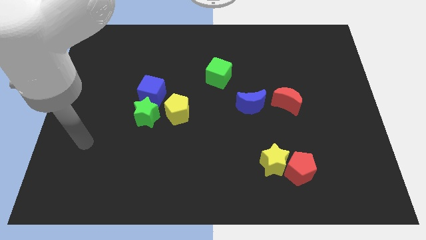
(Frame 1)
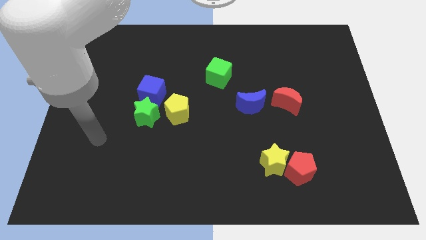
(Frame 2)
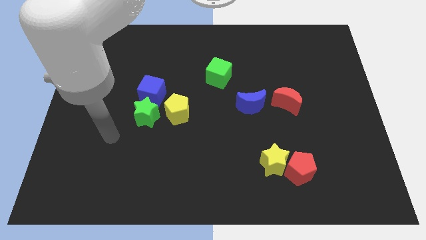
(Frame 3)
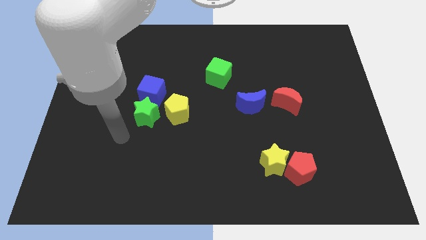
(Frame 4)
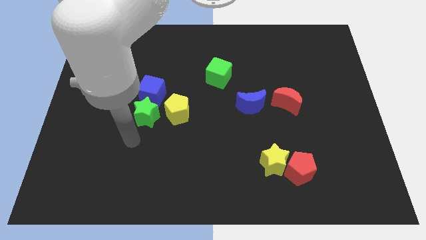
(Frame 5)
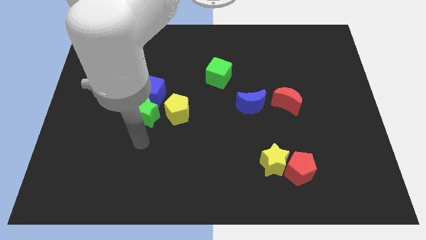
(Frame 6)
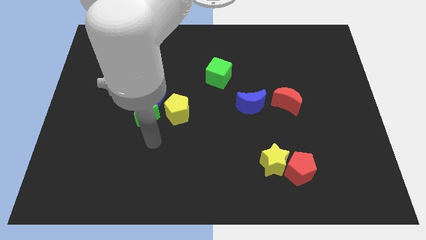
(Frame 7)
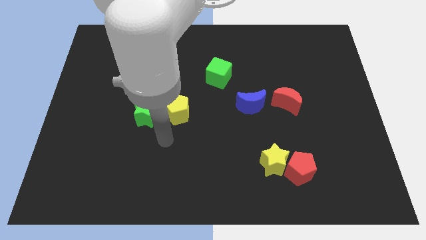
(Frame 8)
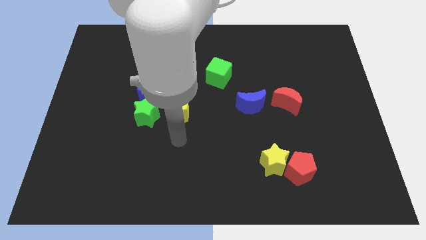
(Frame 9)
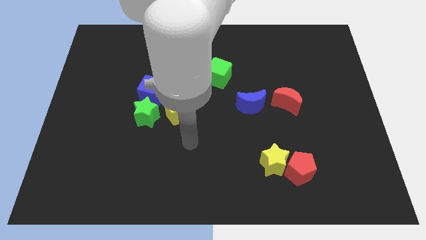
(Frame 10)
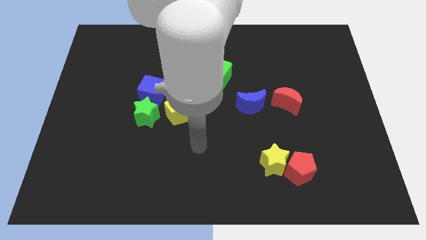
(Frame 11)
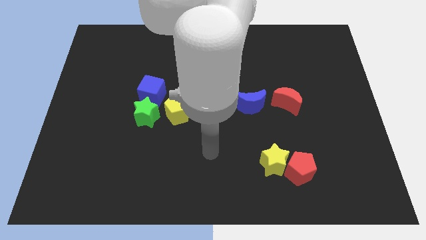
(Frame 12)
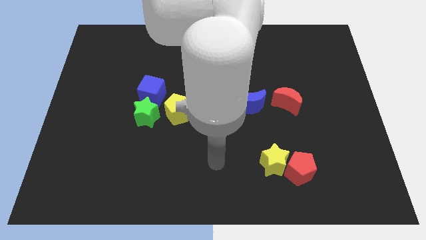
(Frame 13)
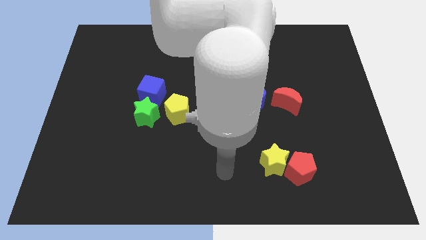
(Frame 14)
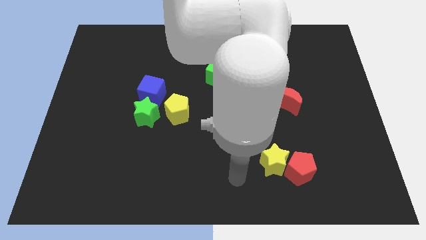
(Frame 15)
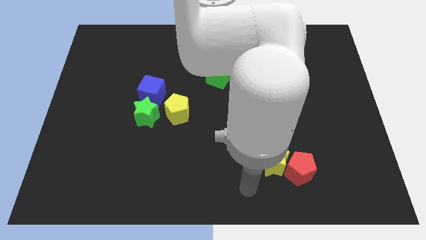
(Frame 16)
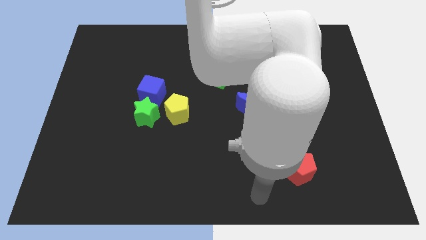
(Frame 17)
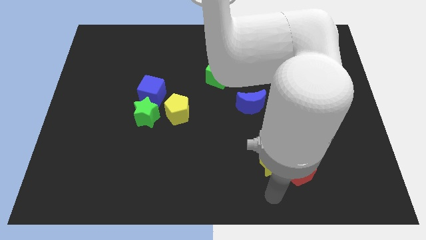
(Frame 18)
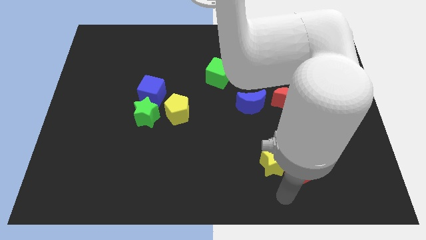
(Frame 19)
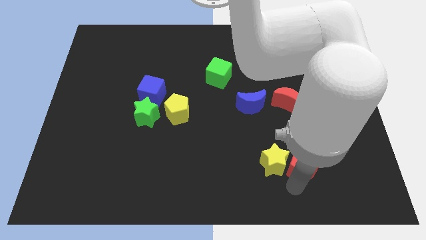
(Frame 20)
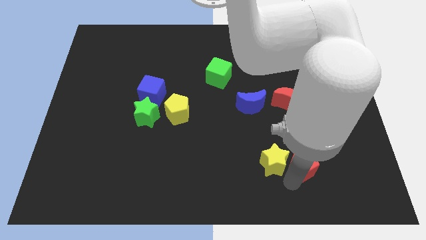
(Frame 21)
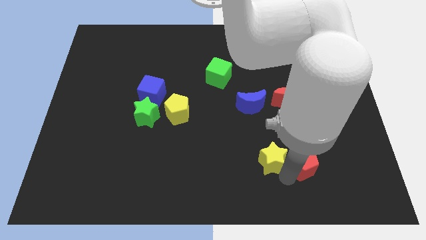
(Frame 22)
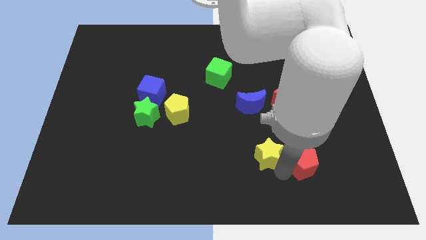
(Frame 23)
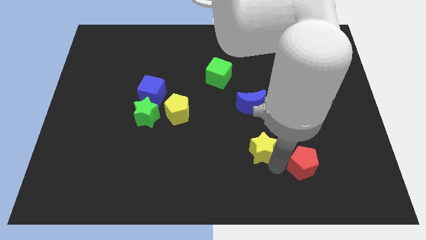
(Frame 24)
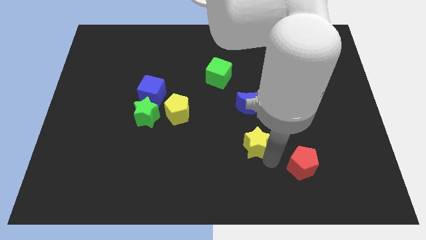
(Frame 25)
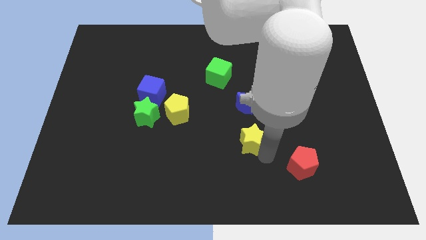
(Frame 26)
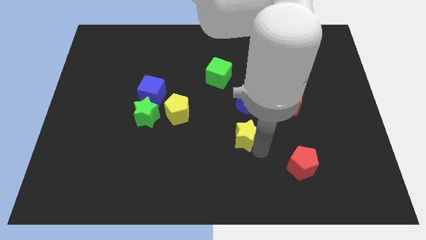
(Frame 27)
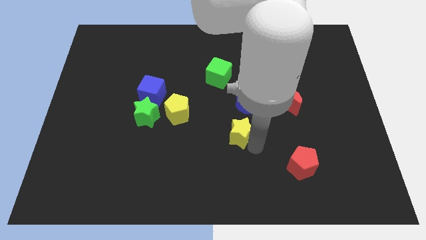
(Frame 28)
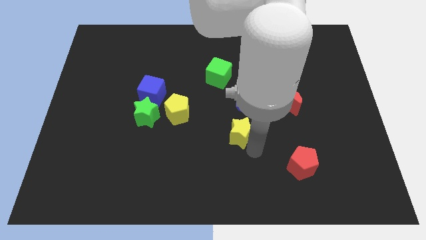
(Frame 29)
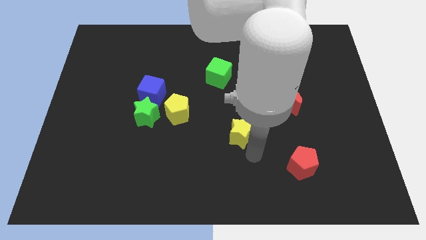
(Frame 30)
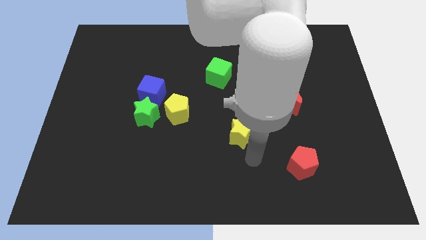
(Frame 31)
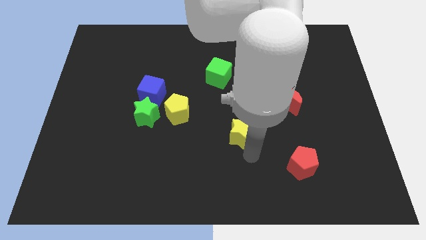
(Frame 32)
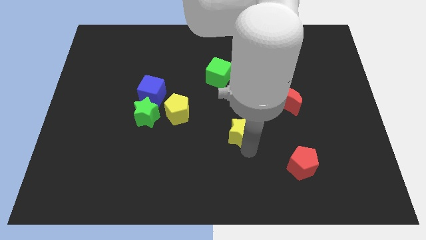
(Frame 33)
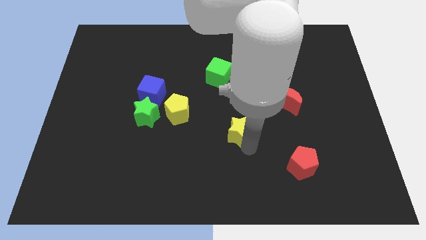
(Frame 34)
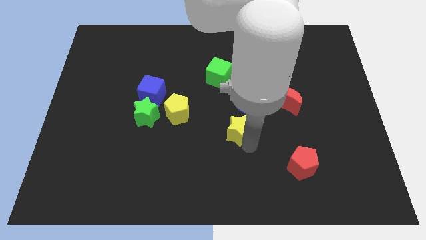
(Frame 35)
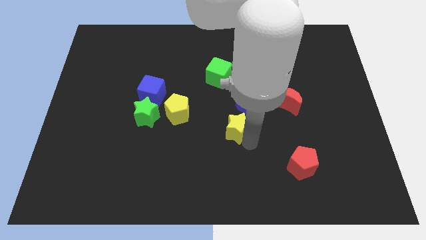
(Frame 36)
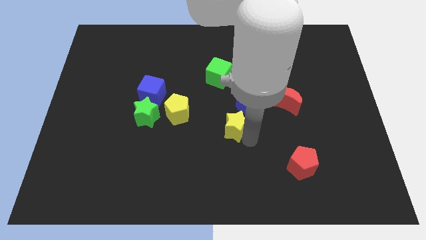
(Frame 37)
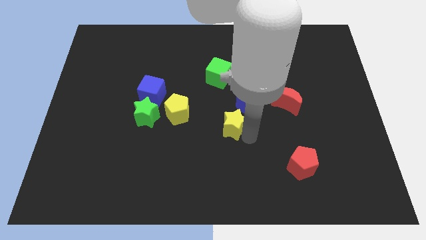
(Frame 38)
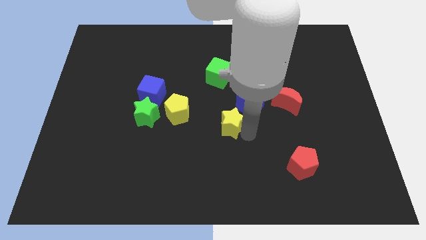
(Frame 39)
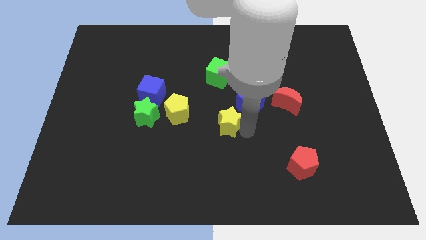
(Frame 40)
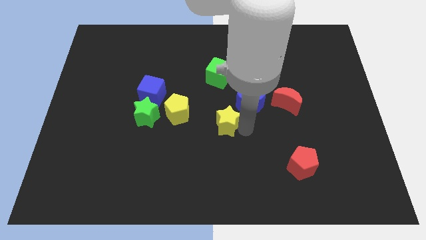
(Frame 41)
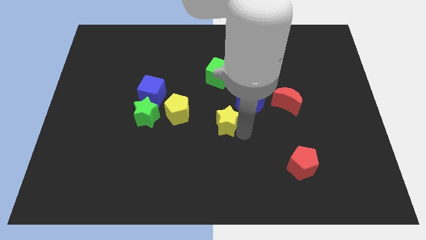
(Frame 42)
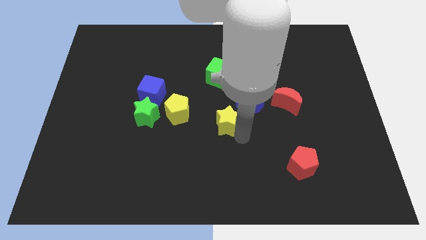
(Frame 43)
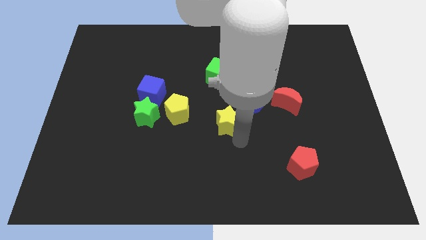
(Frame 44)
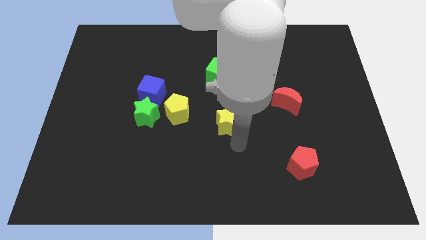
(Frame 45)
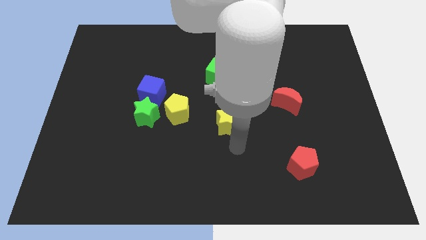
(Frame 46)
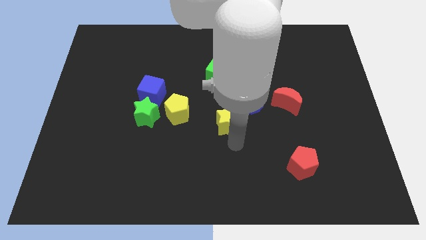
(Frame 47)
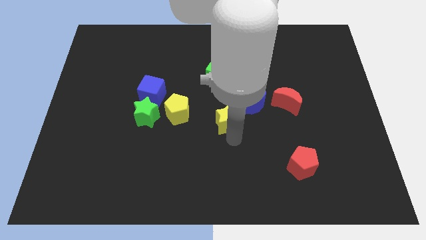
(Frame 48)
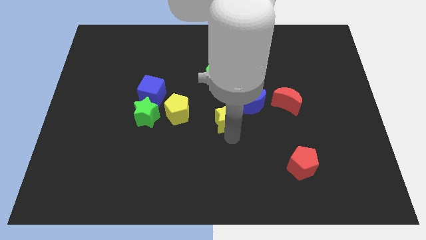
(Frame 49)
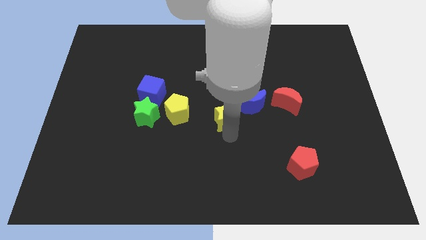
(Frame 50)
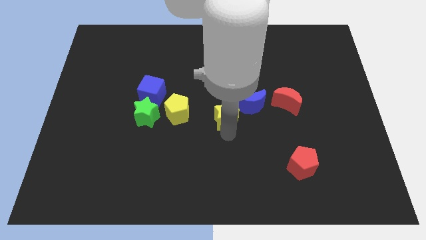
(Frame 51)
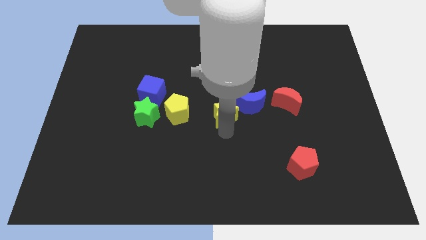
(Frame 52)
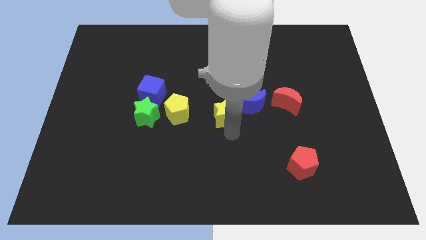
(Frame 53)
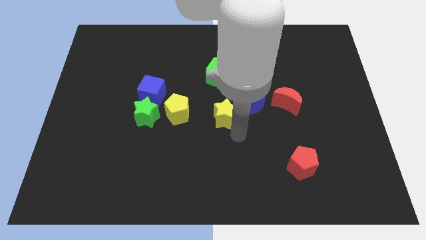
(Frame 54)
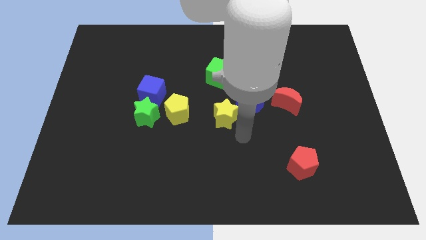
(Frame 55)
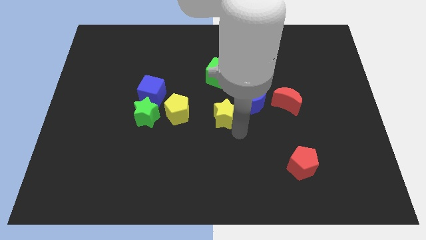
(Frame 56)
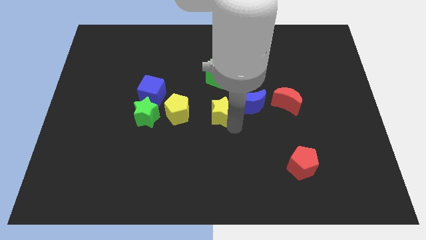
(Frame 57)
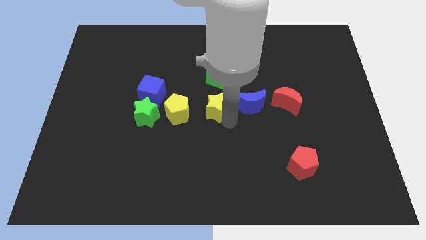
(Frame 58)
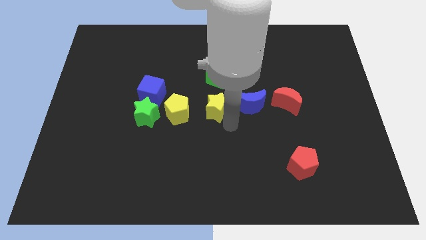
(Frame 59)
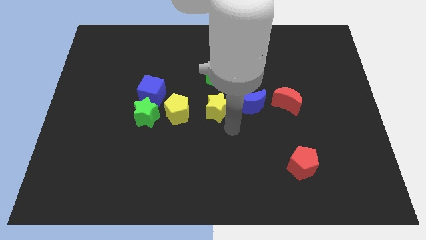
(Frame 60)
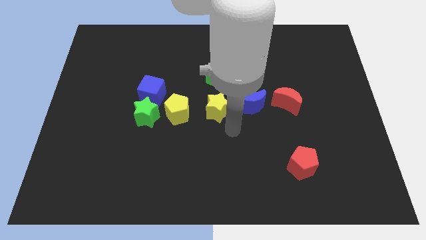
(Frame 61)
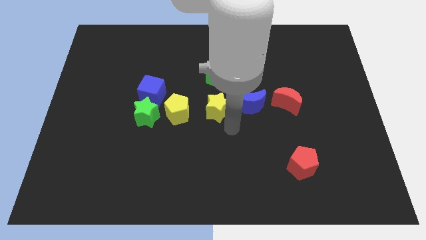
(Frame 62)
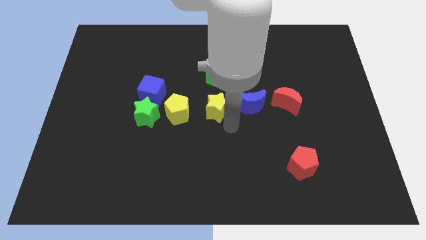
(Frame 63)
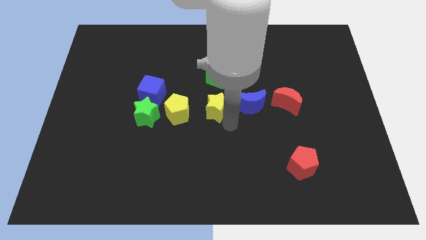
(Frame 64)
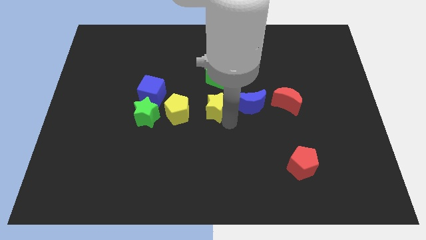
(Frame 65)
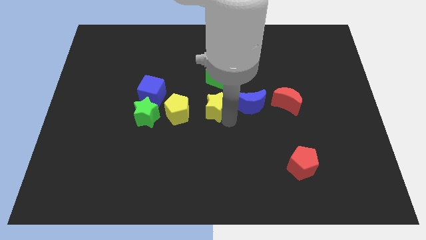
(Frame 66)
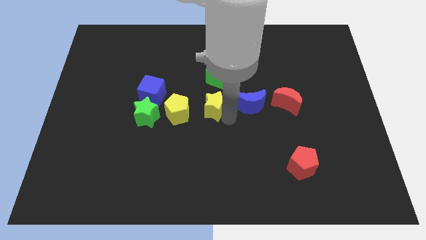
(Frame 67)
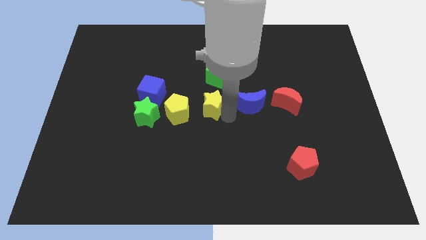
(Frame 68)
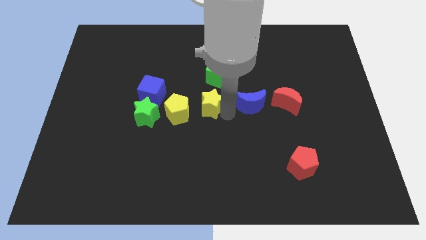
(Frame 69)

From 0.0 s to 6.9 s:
move the yellow star up and left

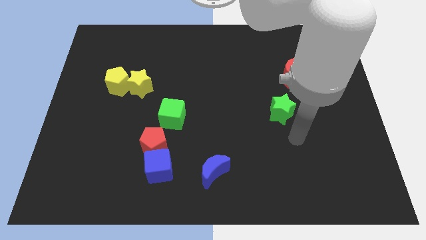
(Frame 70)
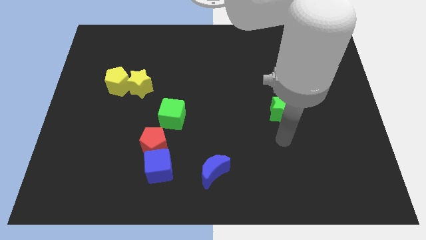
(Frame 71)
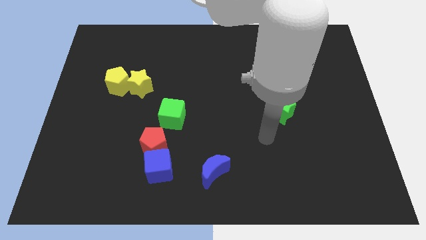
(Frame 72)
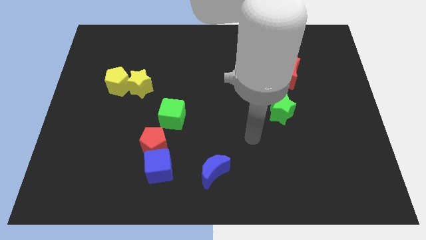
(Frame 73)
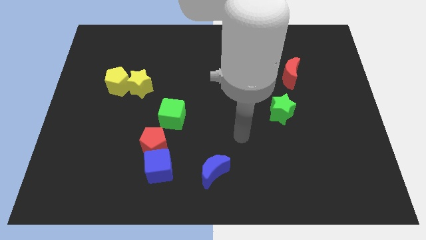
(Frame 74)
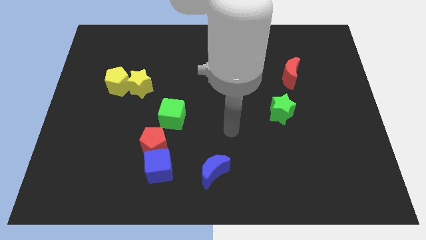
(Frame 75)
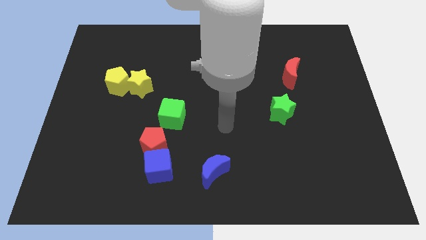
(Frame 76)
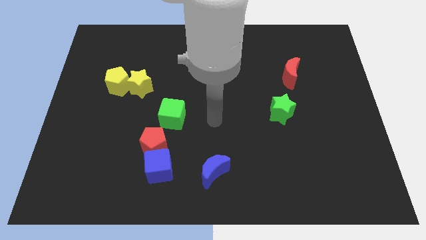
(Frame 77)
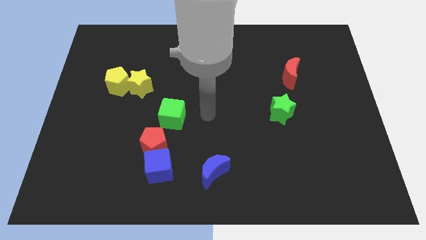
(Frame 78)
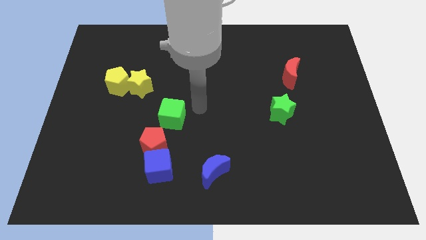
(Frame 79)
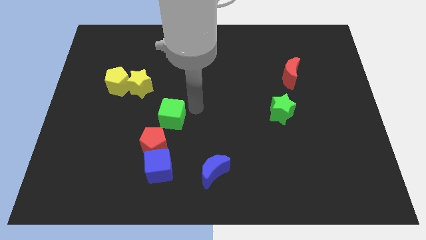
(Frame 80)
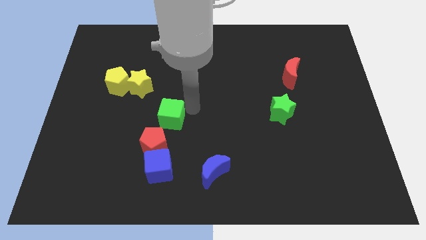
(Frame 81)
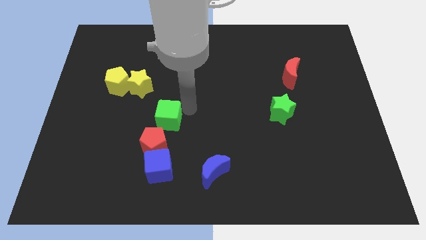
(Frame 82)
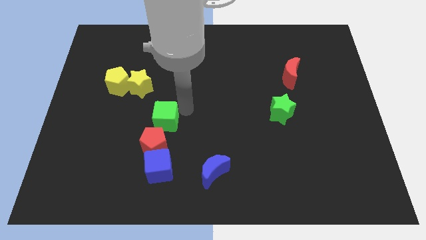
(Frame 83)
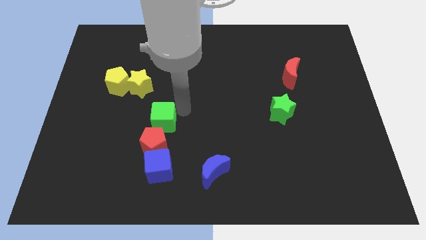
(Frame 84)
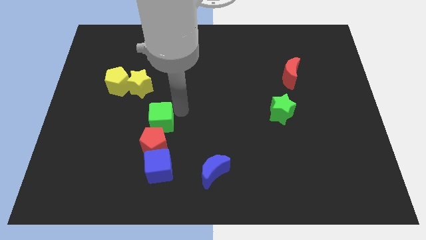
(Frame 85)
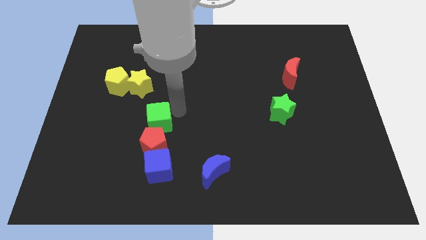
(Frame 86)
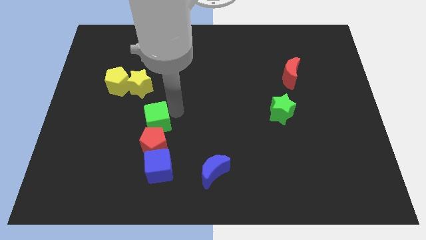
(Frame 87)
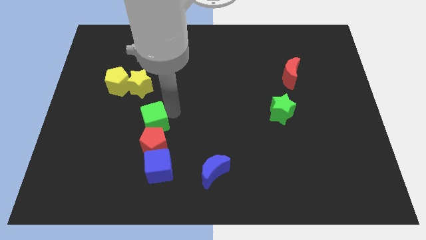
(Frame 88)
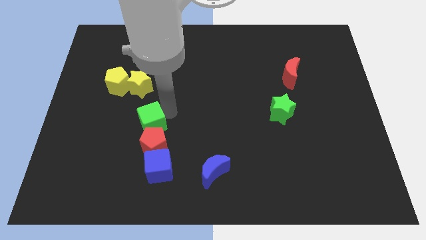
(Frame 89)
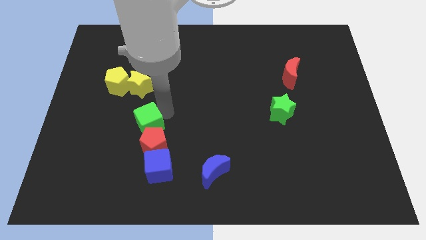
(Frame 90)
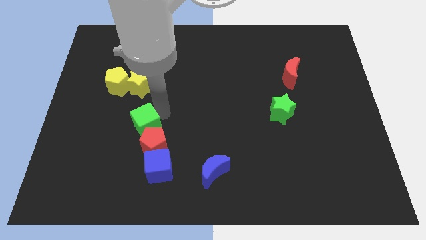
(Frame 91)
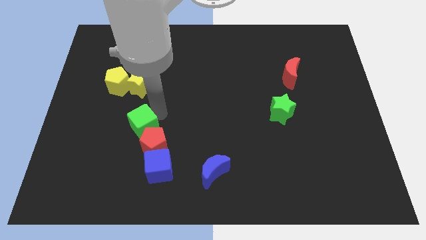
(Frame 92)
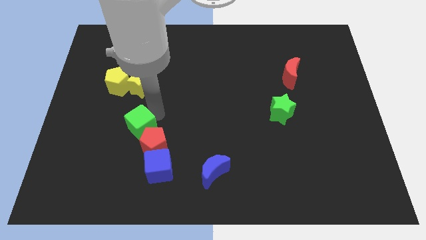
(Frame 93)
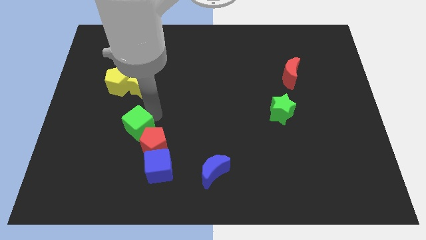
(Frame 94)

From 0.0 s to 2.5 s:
slightly slide the green cube down and then to the left
